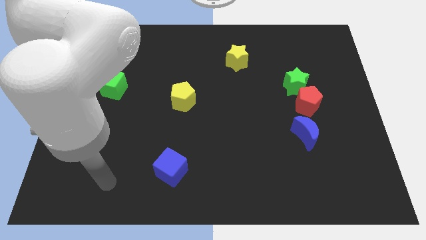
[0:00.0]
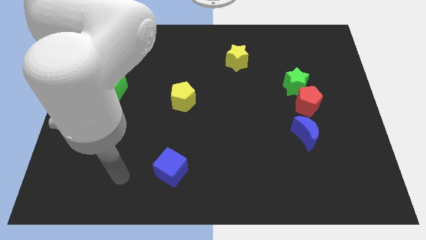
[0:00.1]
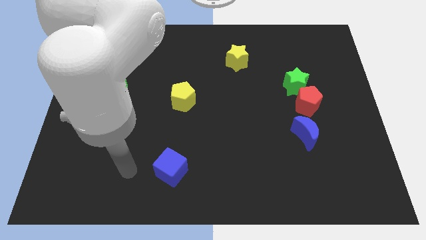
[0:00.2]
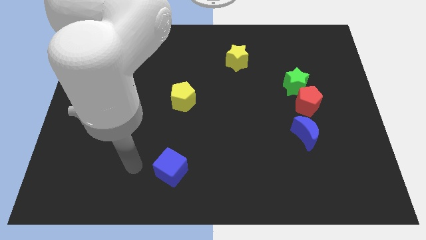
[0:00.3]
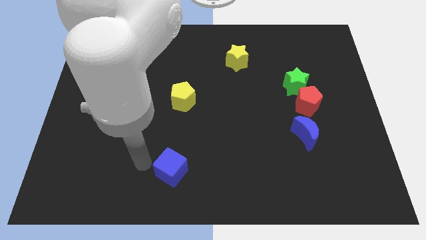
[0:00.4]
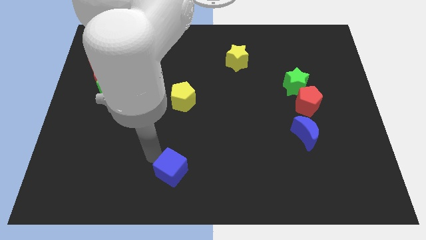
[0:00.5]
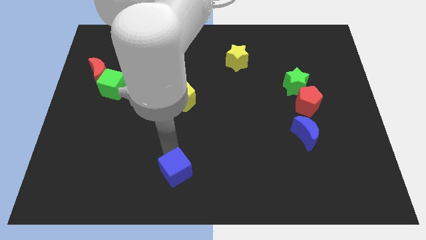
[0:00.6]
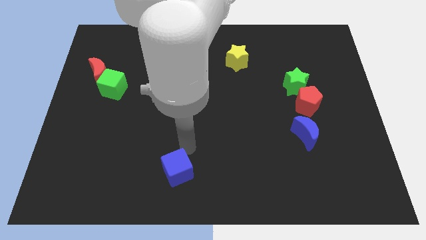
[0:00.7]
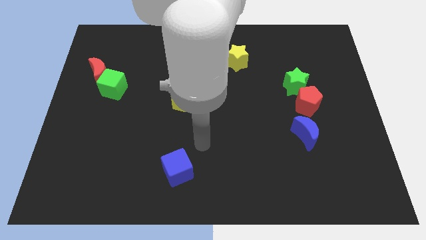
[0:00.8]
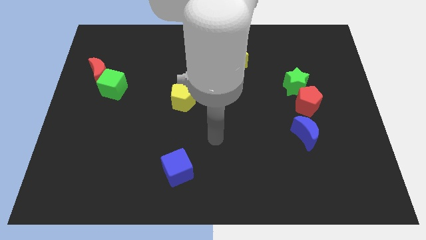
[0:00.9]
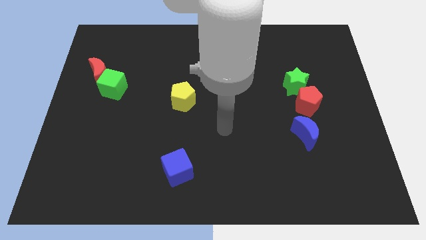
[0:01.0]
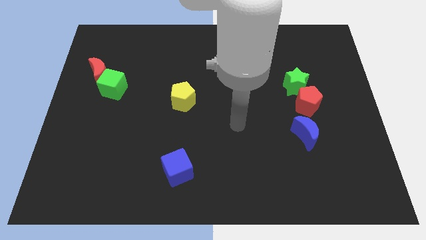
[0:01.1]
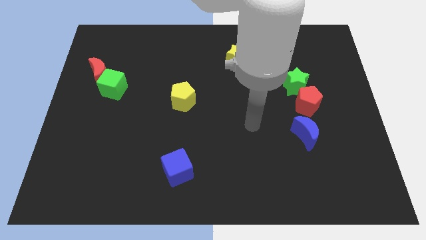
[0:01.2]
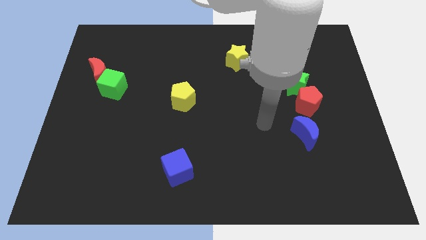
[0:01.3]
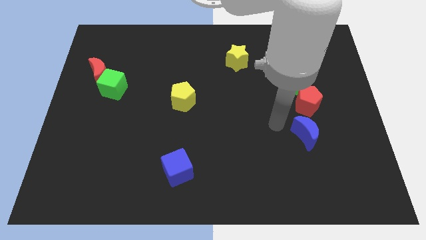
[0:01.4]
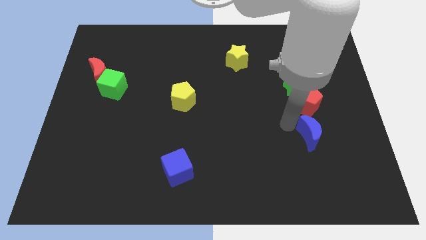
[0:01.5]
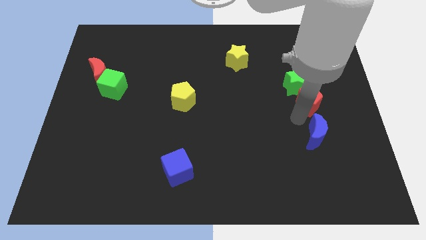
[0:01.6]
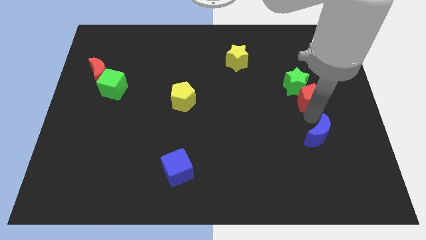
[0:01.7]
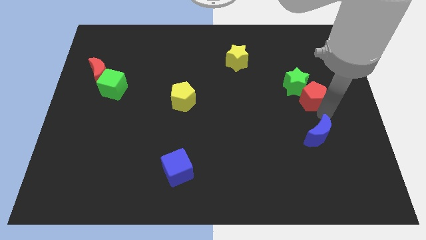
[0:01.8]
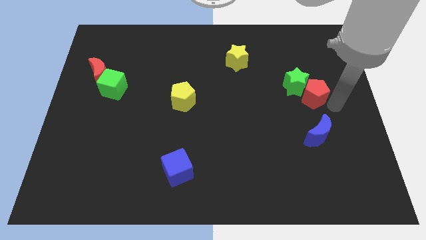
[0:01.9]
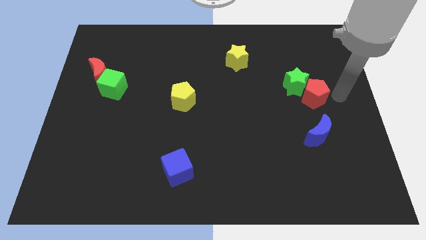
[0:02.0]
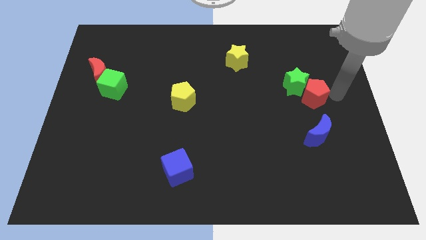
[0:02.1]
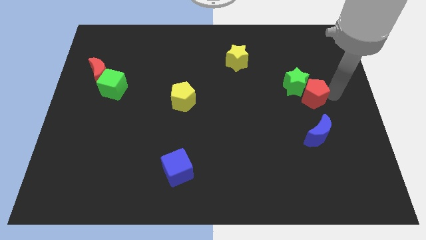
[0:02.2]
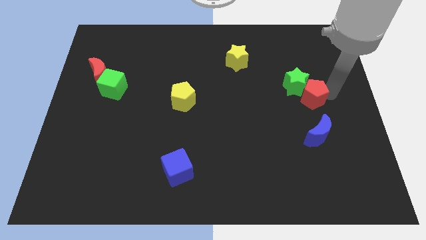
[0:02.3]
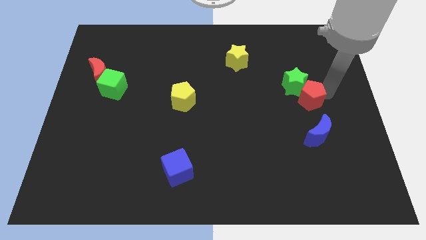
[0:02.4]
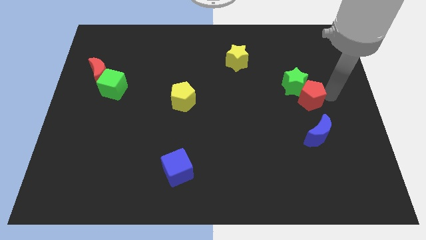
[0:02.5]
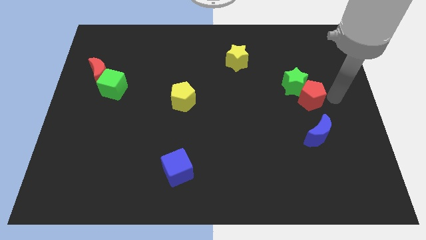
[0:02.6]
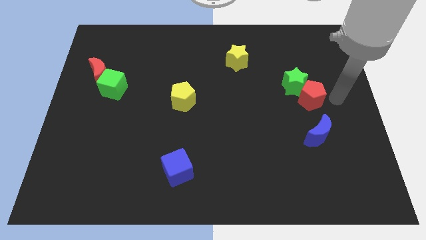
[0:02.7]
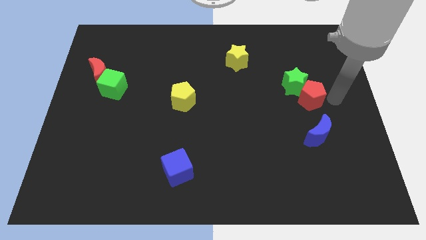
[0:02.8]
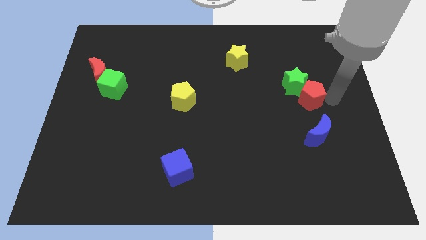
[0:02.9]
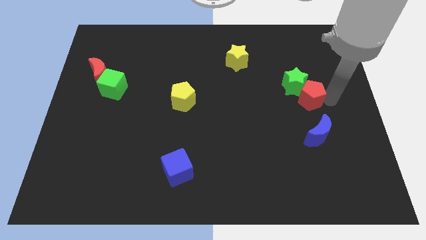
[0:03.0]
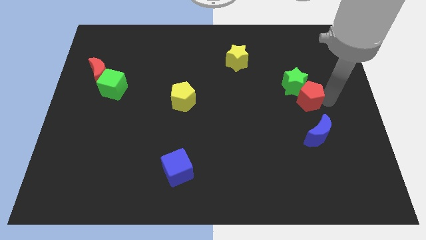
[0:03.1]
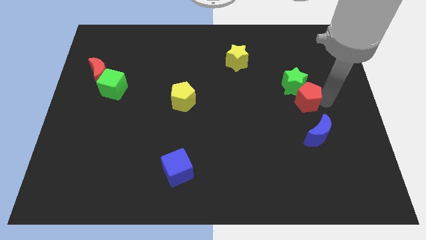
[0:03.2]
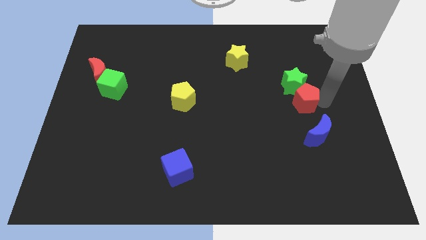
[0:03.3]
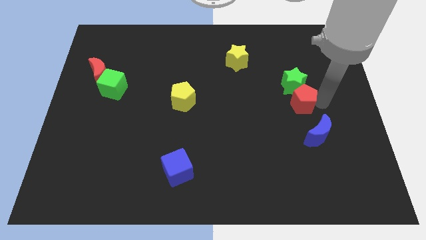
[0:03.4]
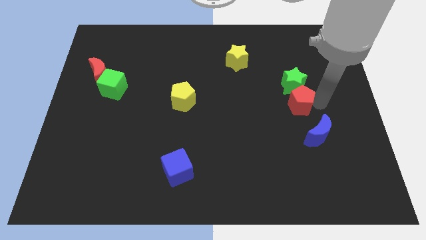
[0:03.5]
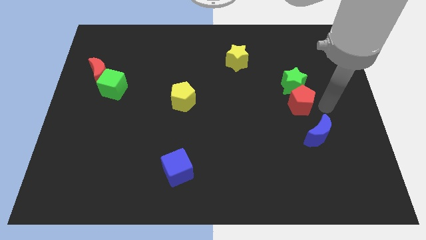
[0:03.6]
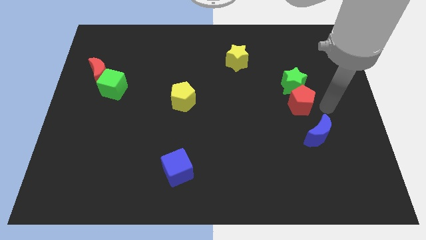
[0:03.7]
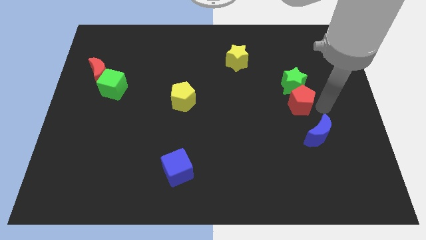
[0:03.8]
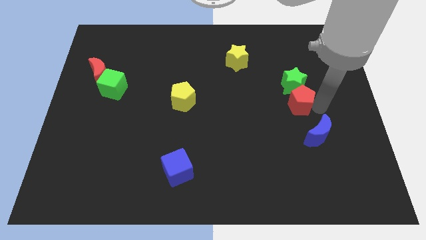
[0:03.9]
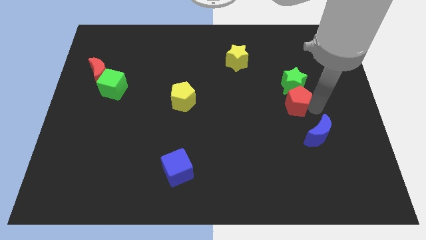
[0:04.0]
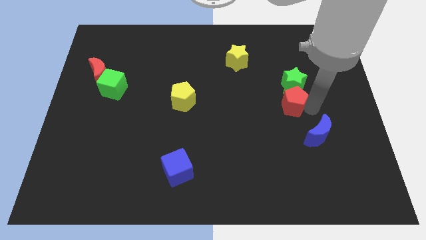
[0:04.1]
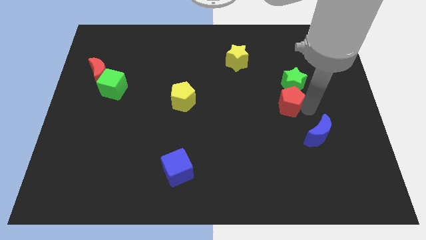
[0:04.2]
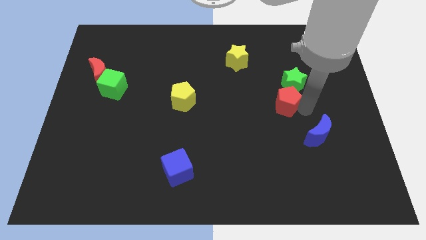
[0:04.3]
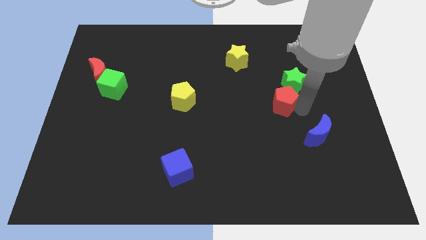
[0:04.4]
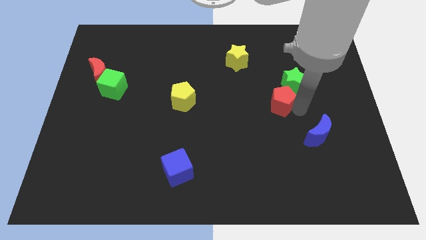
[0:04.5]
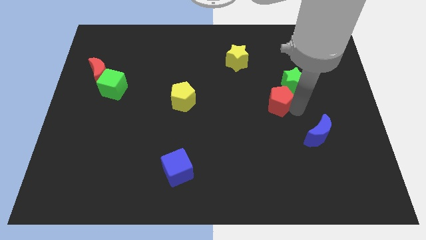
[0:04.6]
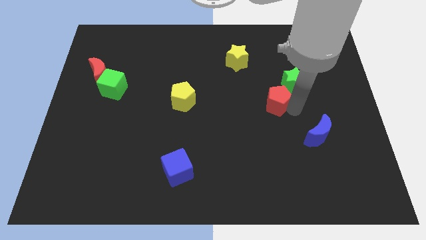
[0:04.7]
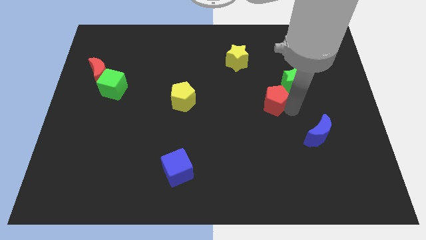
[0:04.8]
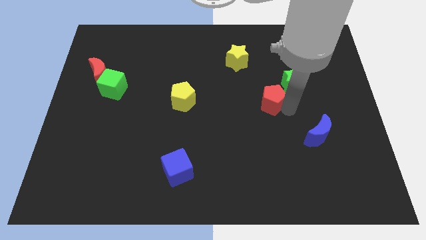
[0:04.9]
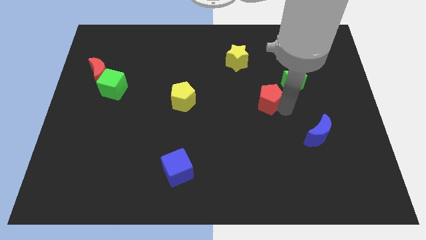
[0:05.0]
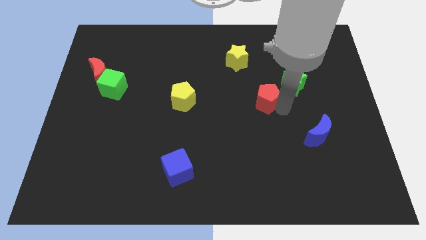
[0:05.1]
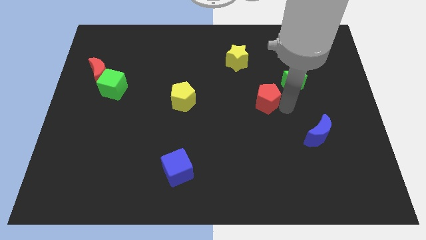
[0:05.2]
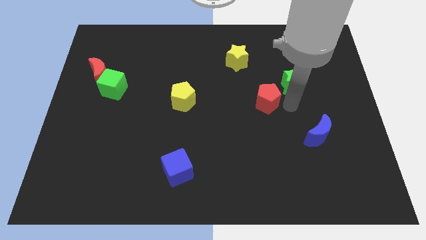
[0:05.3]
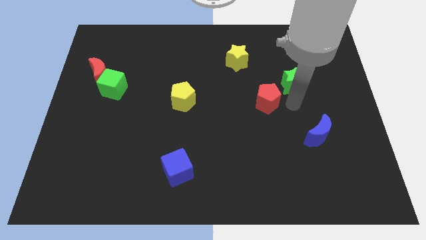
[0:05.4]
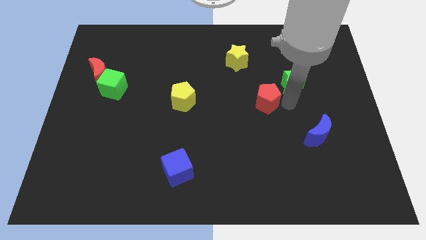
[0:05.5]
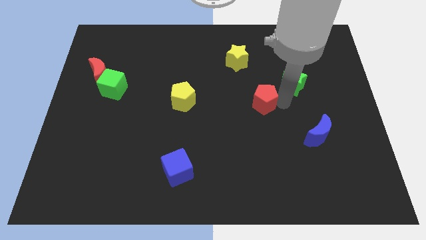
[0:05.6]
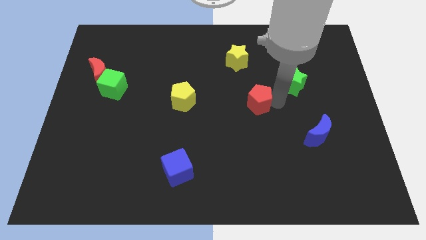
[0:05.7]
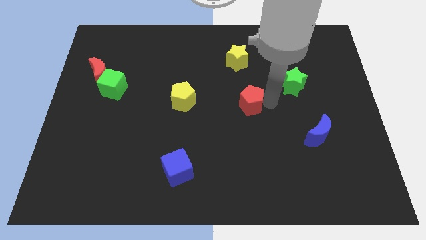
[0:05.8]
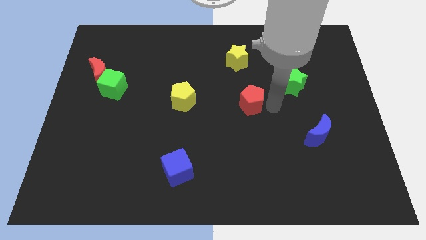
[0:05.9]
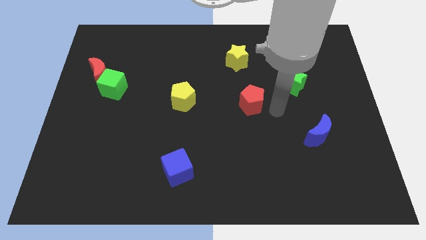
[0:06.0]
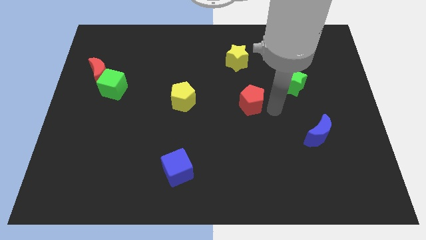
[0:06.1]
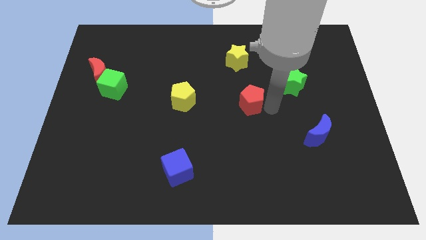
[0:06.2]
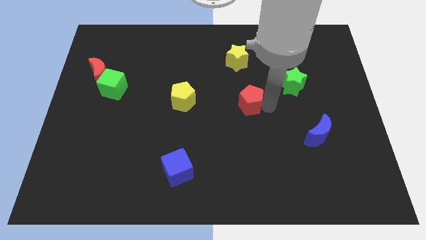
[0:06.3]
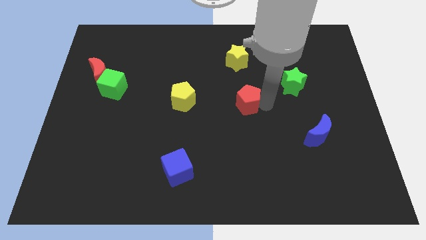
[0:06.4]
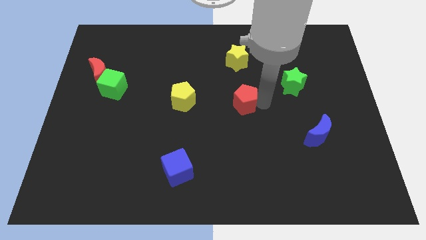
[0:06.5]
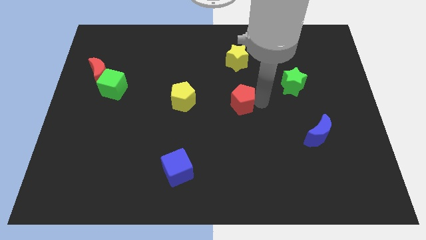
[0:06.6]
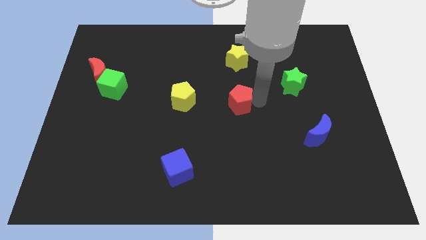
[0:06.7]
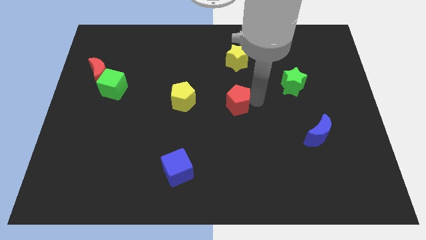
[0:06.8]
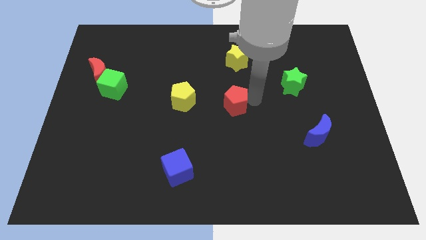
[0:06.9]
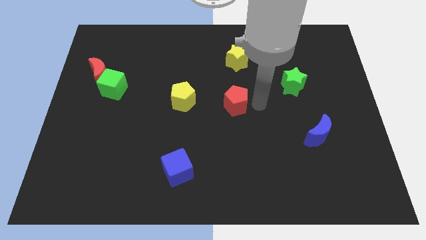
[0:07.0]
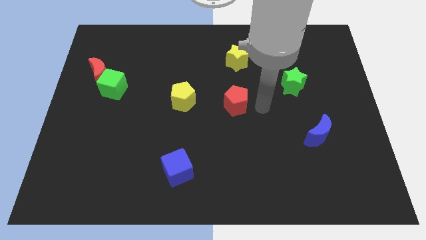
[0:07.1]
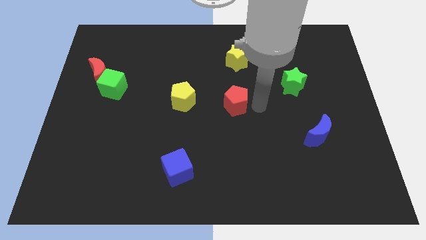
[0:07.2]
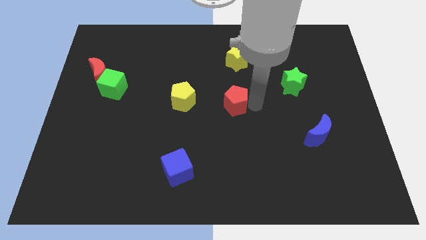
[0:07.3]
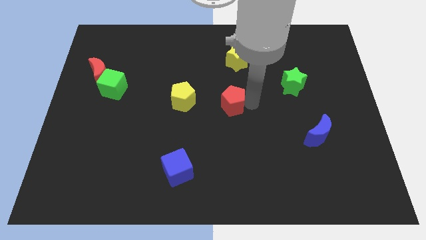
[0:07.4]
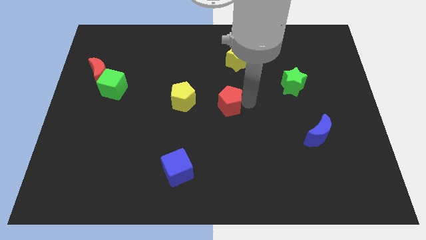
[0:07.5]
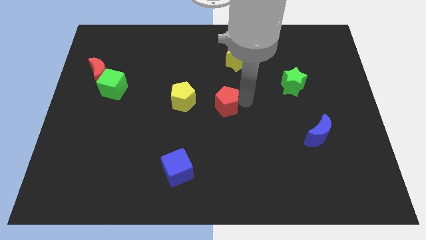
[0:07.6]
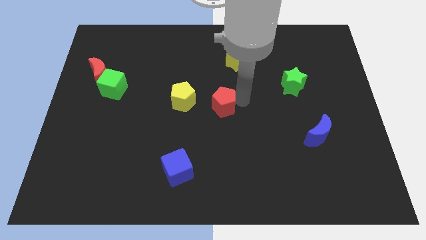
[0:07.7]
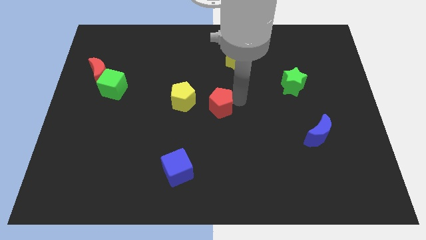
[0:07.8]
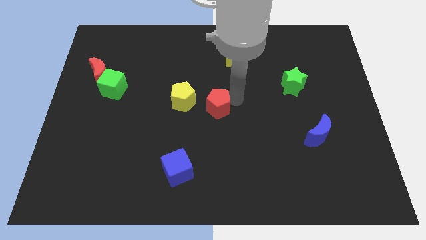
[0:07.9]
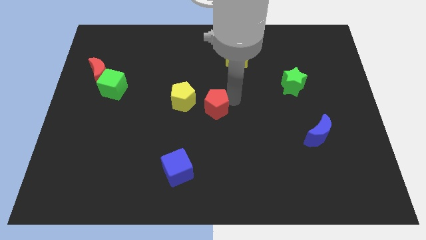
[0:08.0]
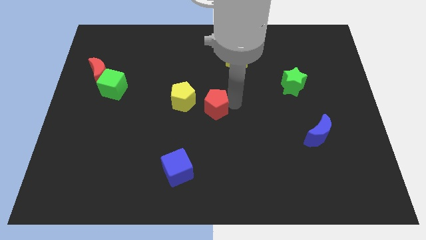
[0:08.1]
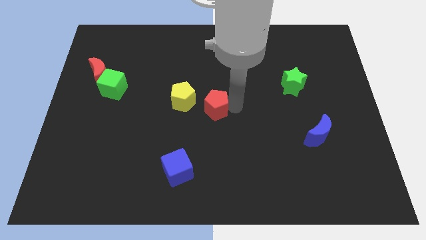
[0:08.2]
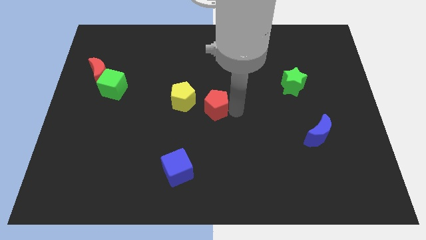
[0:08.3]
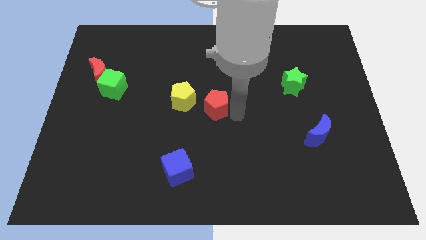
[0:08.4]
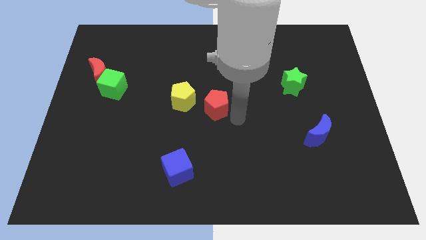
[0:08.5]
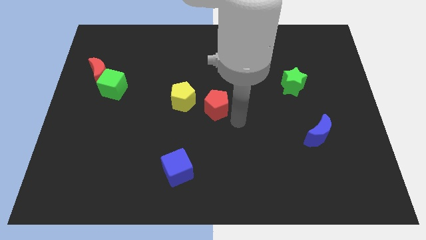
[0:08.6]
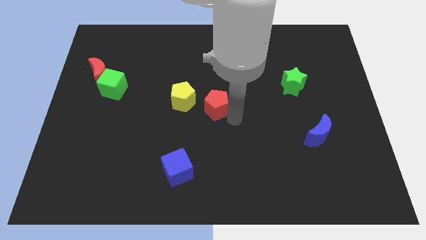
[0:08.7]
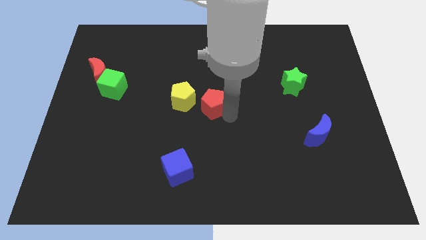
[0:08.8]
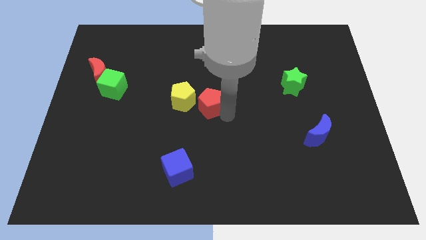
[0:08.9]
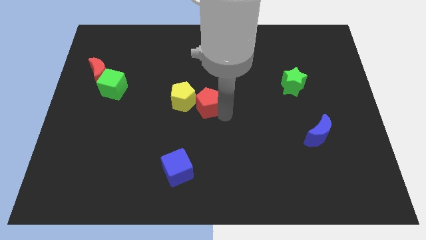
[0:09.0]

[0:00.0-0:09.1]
push the red pentagon towards the yellow pentagon
